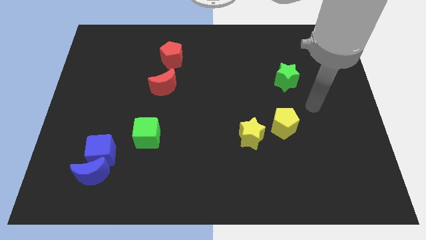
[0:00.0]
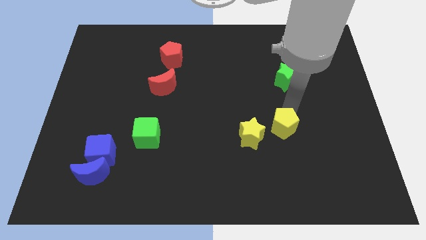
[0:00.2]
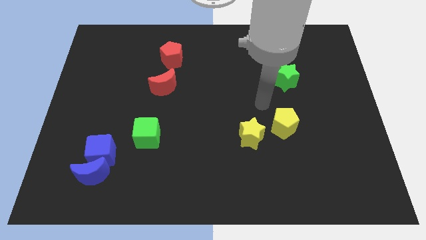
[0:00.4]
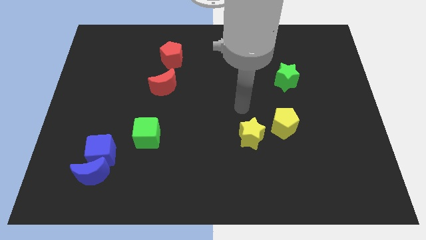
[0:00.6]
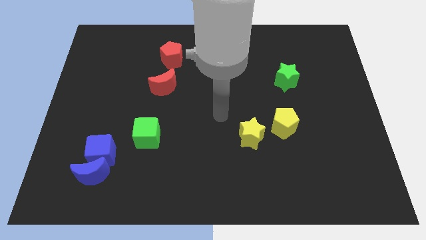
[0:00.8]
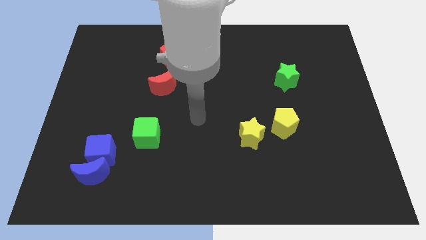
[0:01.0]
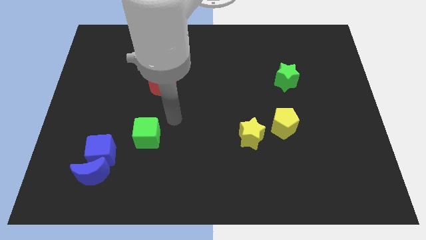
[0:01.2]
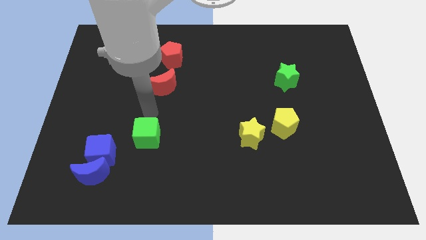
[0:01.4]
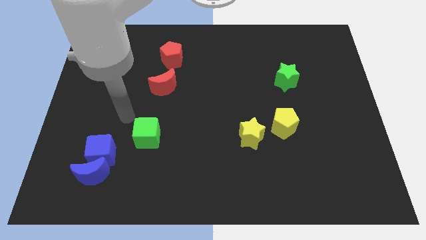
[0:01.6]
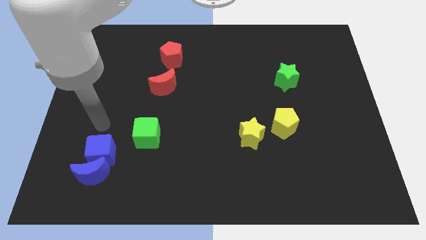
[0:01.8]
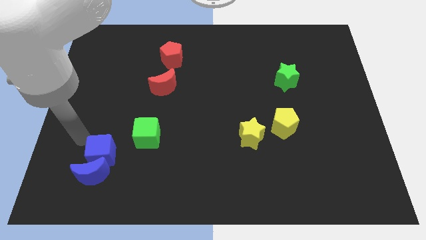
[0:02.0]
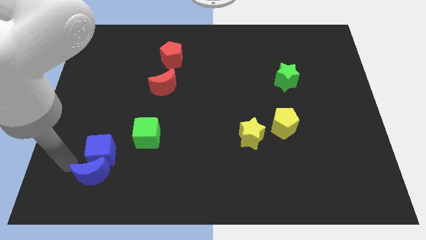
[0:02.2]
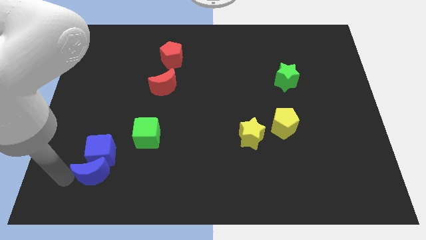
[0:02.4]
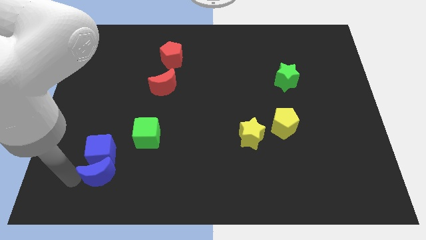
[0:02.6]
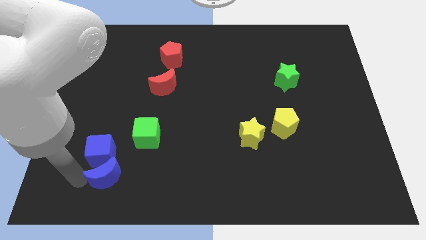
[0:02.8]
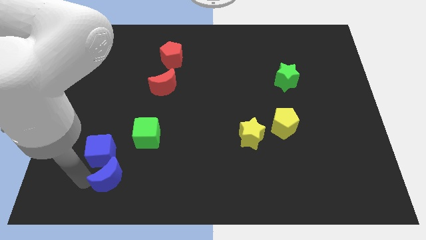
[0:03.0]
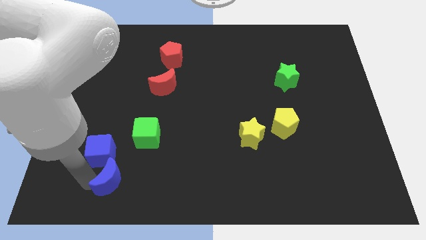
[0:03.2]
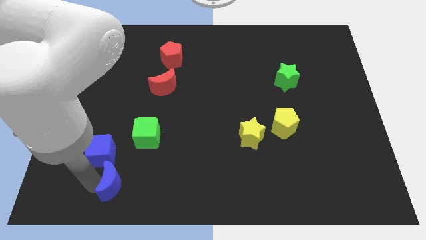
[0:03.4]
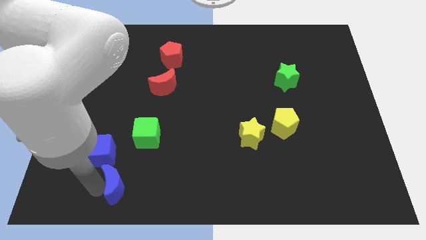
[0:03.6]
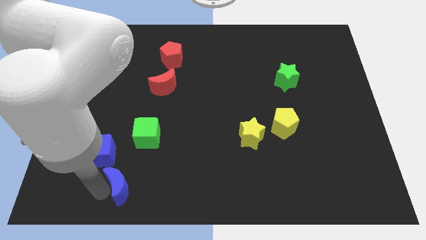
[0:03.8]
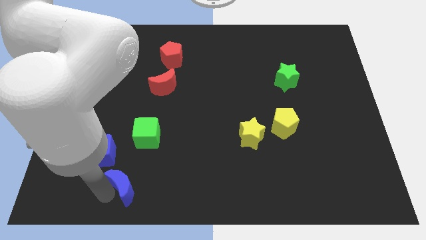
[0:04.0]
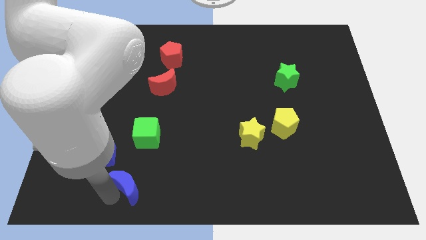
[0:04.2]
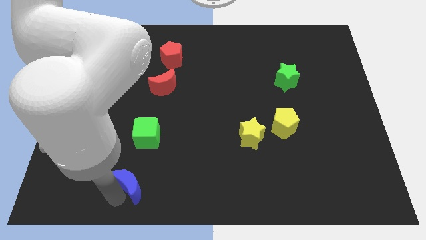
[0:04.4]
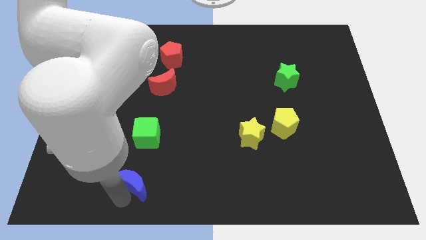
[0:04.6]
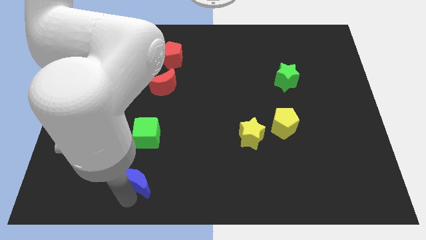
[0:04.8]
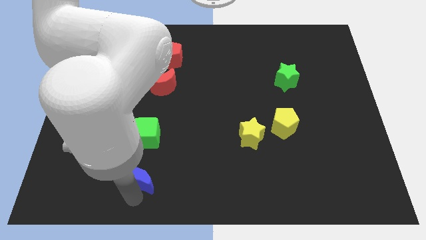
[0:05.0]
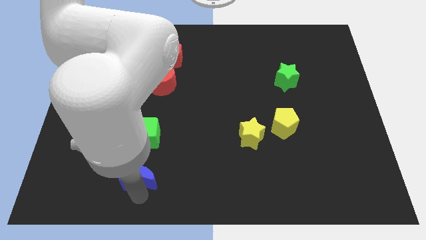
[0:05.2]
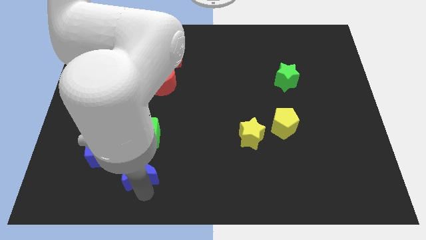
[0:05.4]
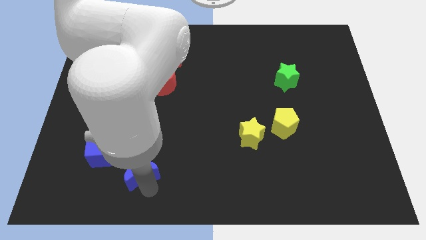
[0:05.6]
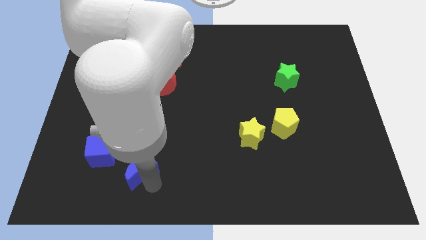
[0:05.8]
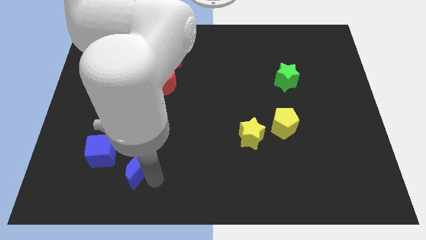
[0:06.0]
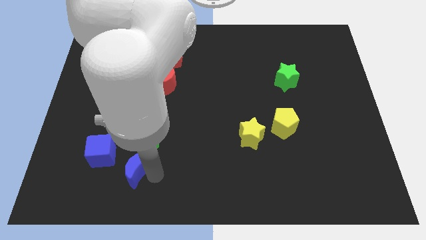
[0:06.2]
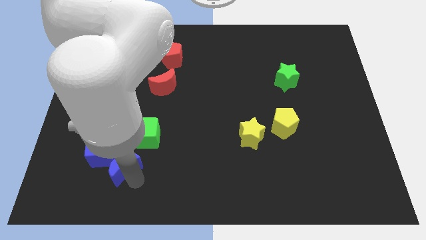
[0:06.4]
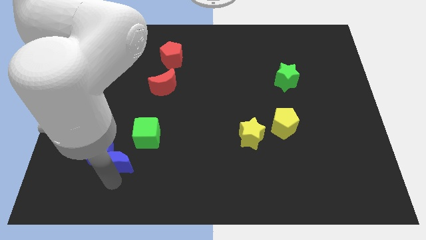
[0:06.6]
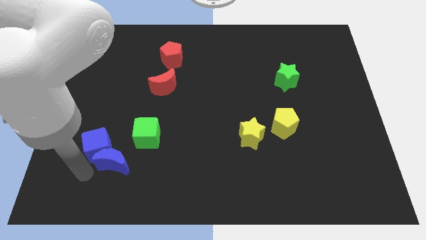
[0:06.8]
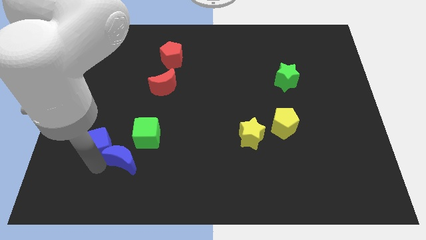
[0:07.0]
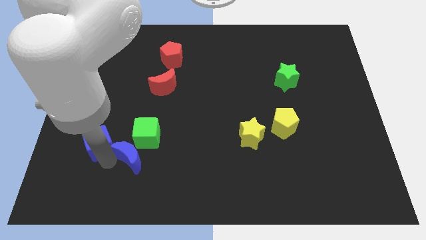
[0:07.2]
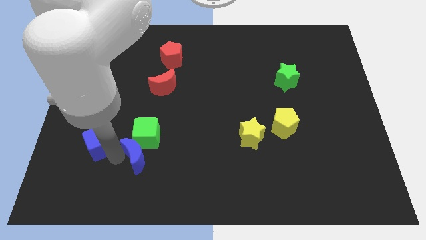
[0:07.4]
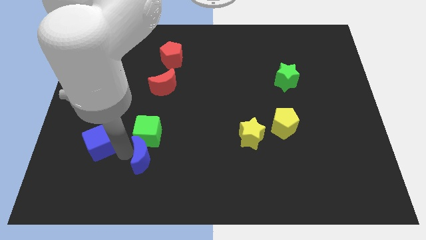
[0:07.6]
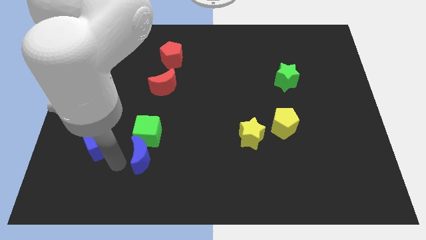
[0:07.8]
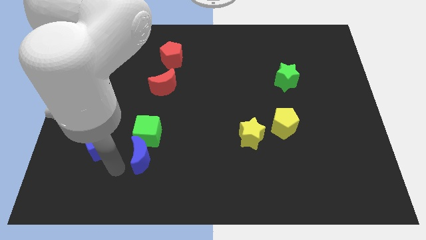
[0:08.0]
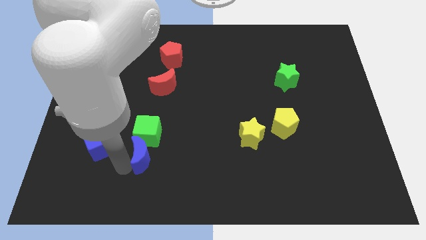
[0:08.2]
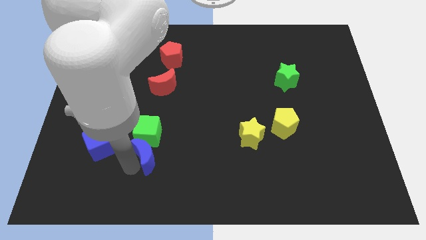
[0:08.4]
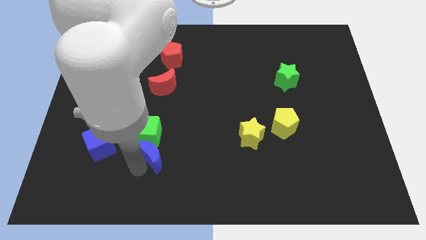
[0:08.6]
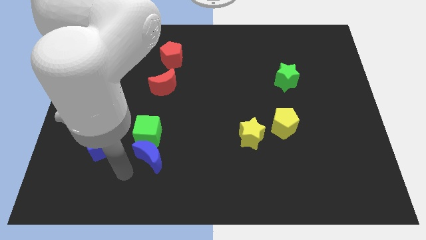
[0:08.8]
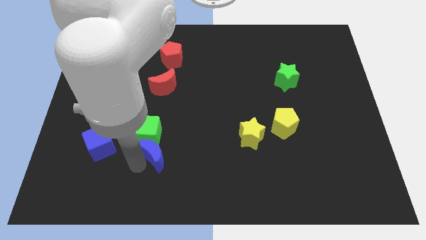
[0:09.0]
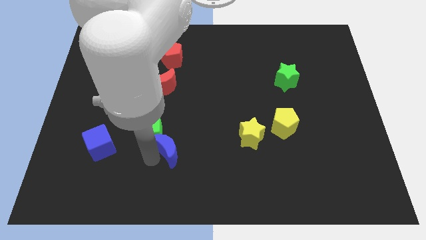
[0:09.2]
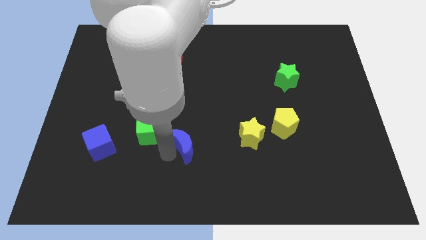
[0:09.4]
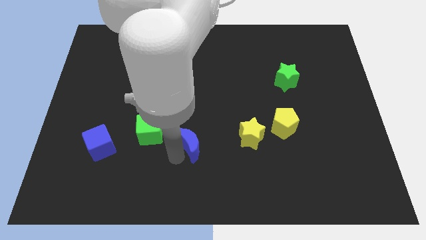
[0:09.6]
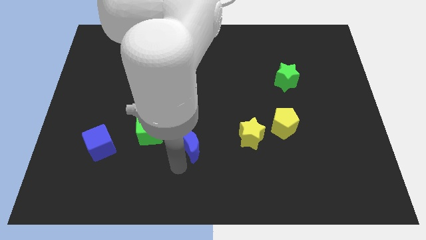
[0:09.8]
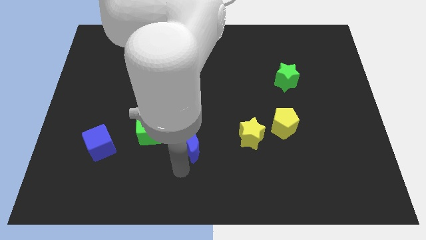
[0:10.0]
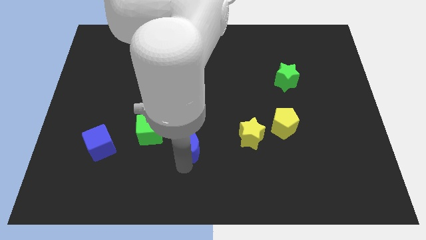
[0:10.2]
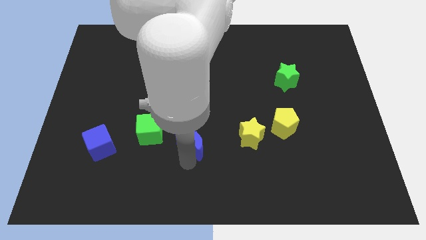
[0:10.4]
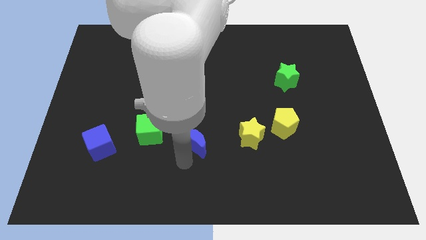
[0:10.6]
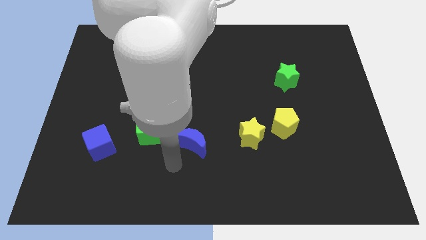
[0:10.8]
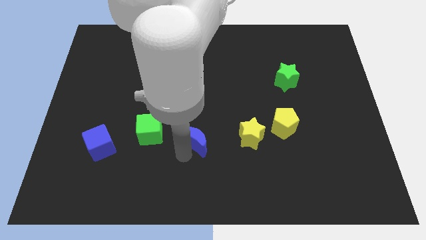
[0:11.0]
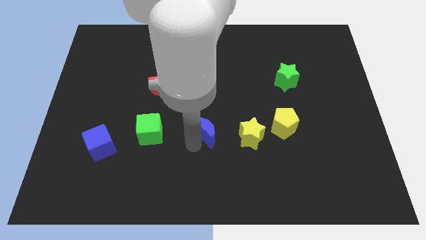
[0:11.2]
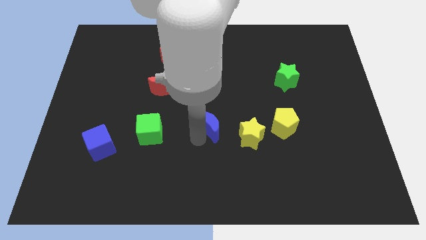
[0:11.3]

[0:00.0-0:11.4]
move the blue moon to the top left of the yellow star

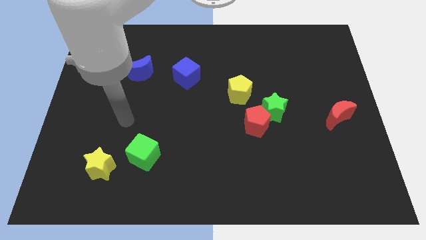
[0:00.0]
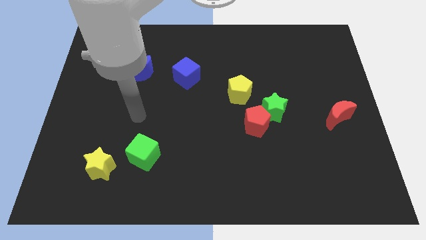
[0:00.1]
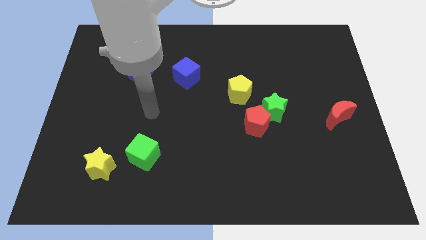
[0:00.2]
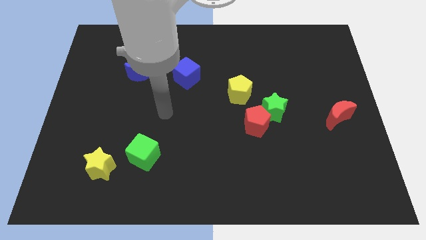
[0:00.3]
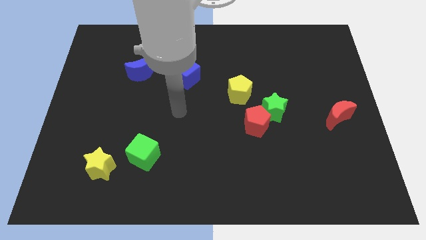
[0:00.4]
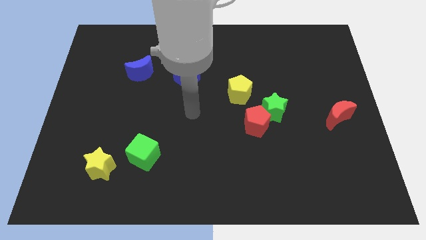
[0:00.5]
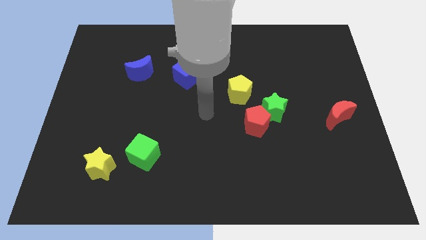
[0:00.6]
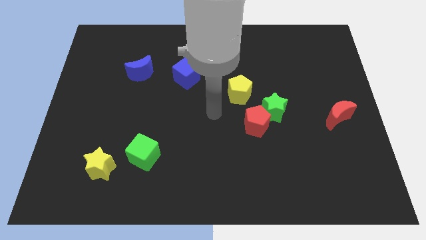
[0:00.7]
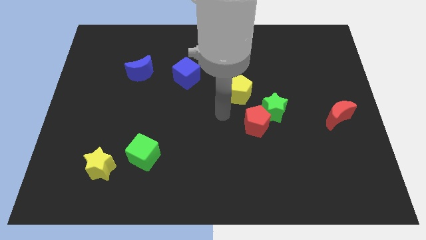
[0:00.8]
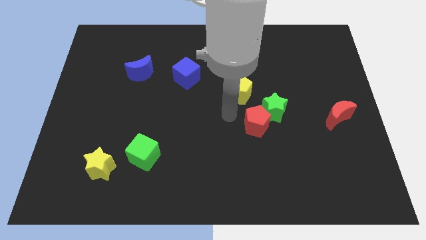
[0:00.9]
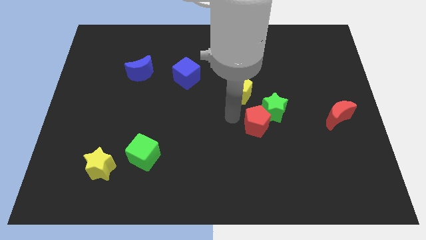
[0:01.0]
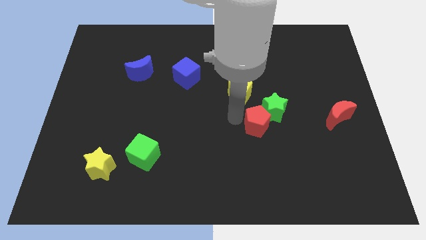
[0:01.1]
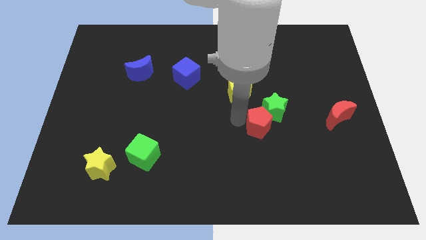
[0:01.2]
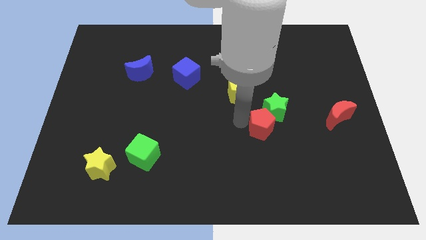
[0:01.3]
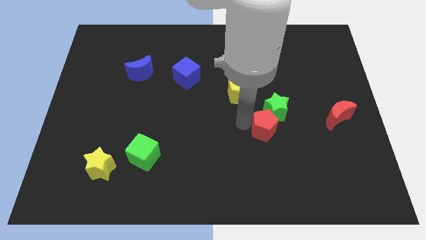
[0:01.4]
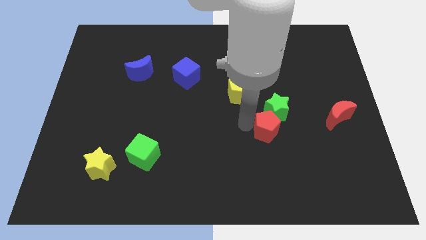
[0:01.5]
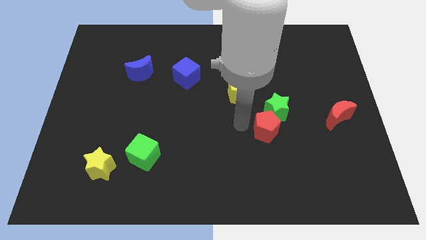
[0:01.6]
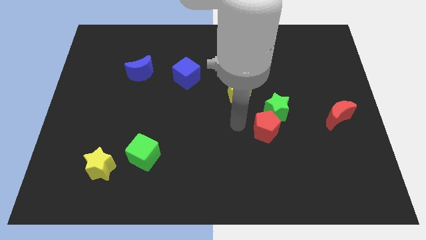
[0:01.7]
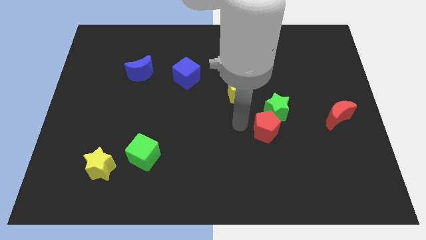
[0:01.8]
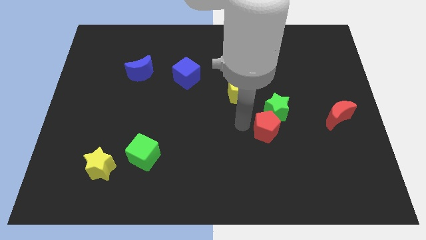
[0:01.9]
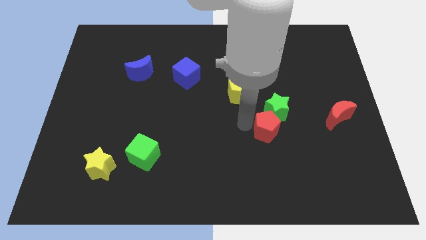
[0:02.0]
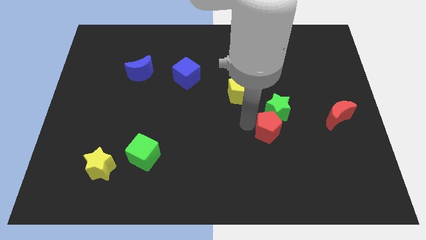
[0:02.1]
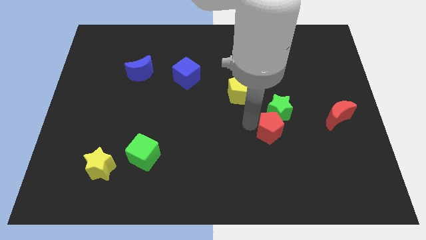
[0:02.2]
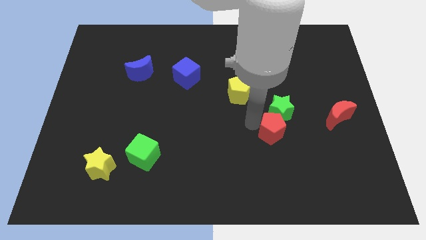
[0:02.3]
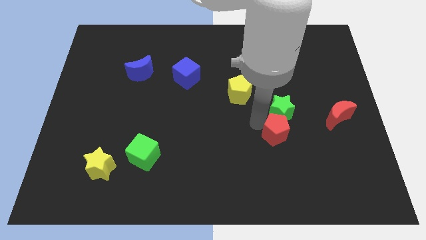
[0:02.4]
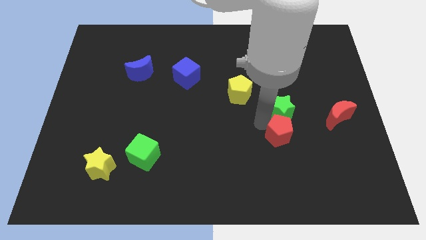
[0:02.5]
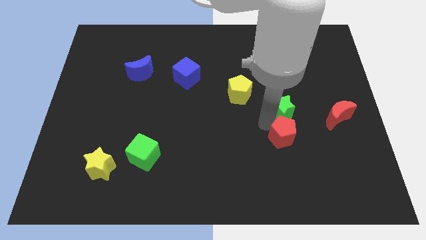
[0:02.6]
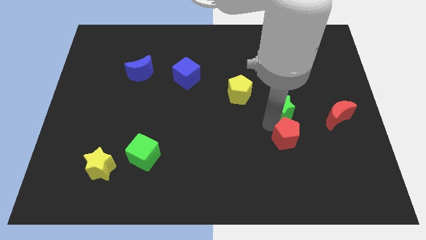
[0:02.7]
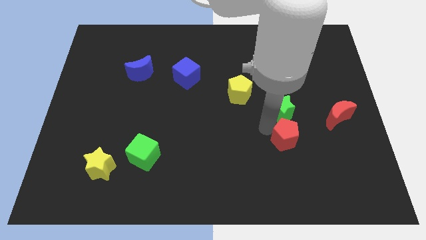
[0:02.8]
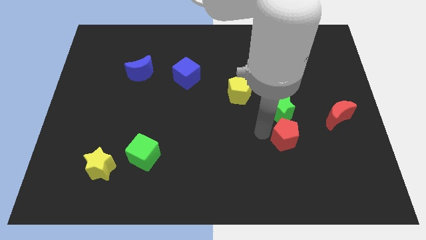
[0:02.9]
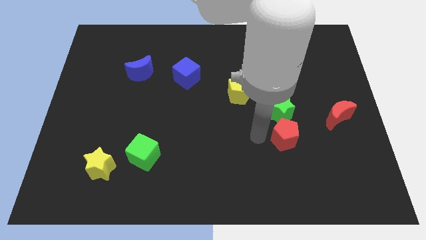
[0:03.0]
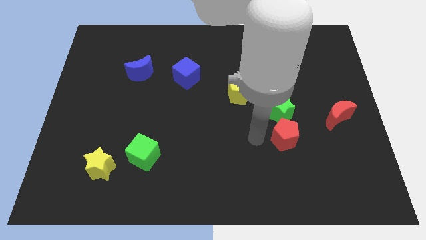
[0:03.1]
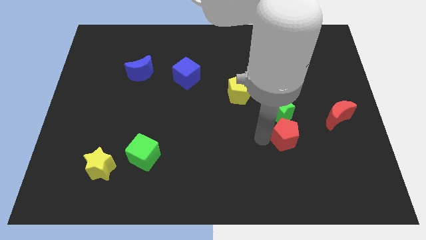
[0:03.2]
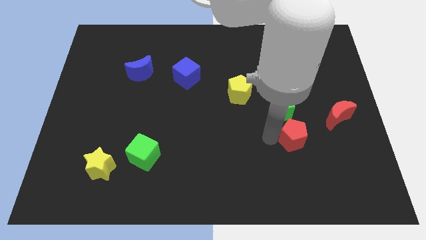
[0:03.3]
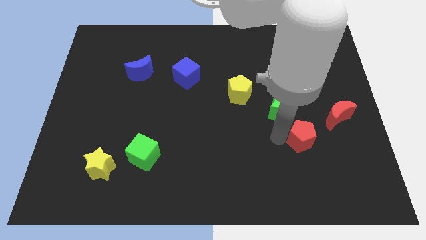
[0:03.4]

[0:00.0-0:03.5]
put the red pentagon diagonally down and to the left of the red moon
